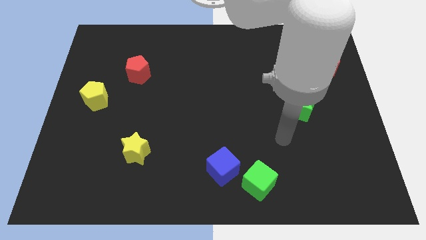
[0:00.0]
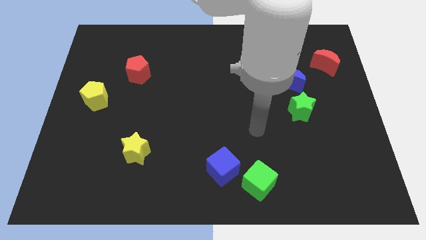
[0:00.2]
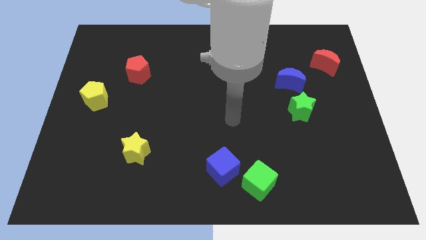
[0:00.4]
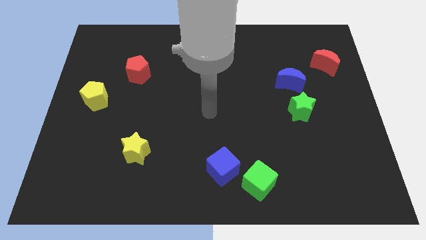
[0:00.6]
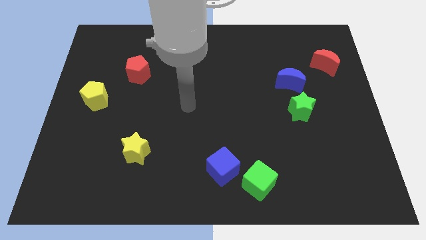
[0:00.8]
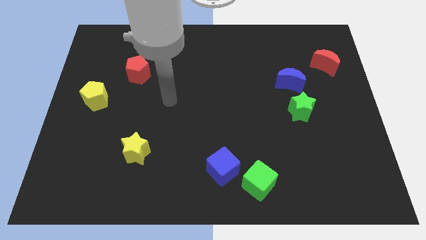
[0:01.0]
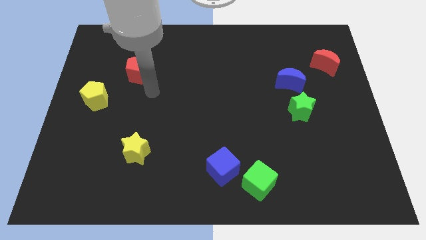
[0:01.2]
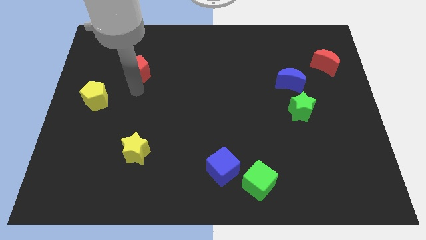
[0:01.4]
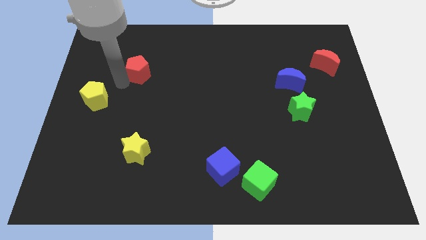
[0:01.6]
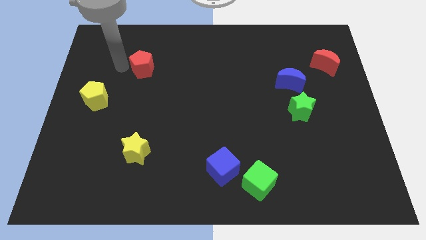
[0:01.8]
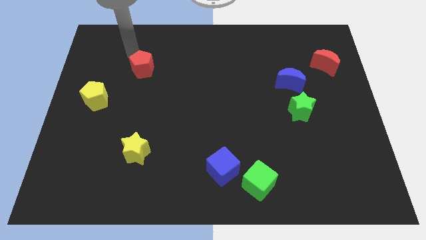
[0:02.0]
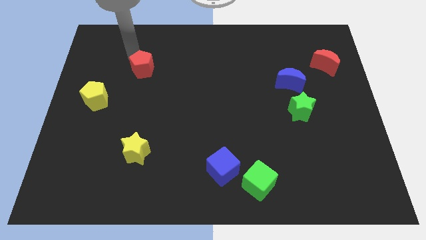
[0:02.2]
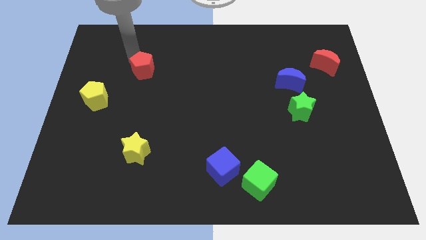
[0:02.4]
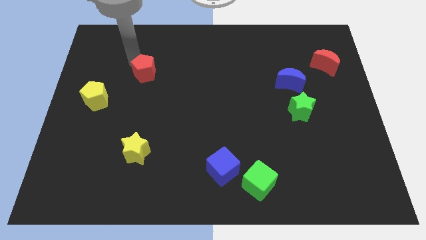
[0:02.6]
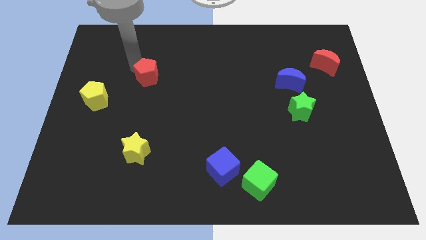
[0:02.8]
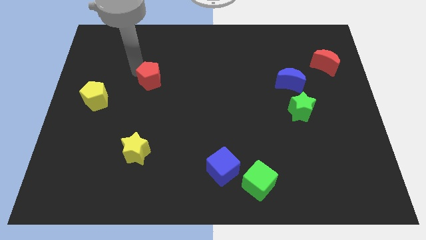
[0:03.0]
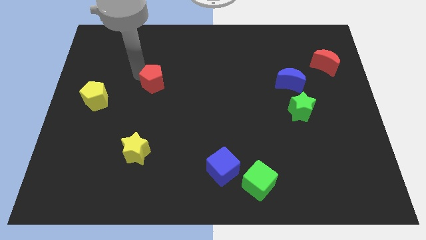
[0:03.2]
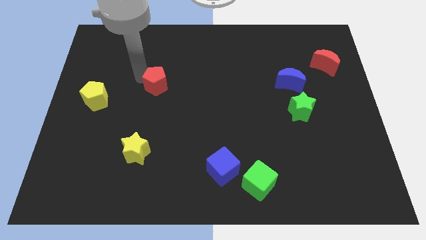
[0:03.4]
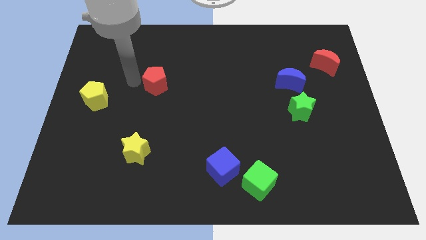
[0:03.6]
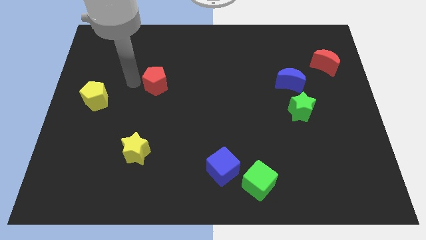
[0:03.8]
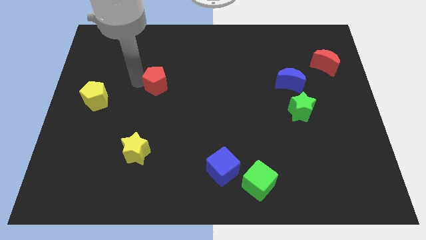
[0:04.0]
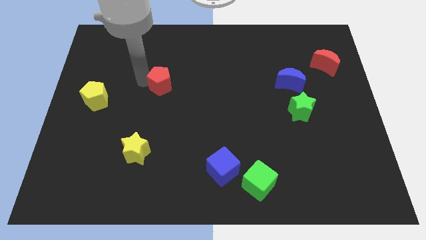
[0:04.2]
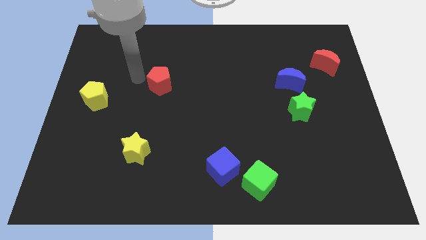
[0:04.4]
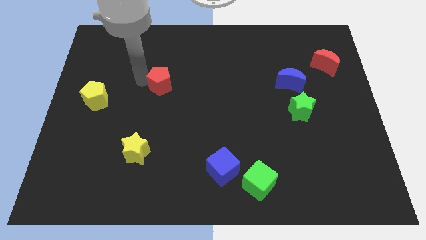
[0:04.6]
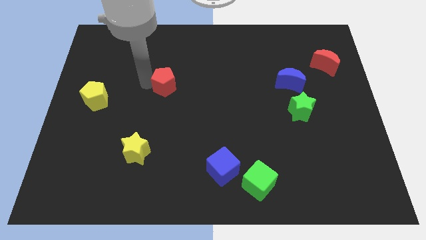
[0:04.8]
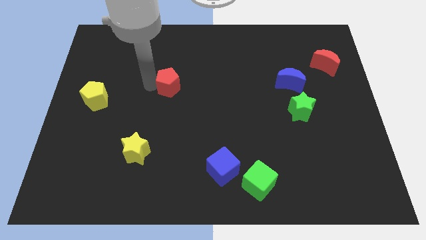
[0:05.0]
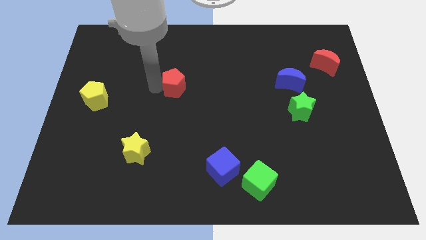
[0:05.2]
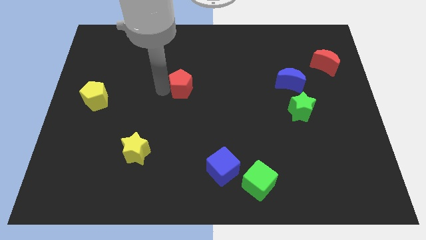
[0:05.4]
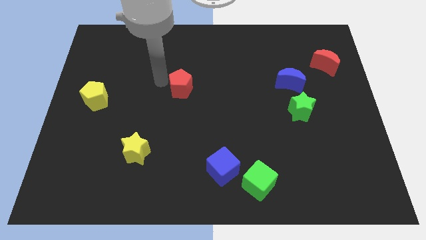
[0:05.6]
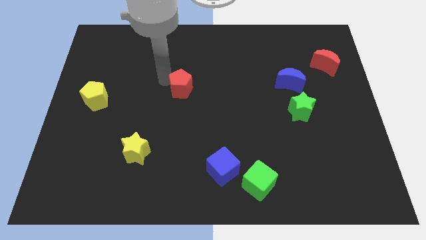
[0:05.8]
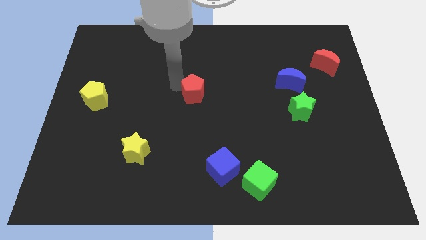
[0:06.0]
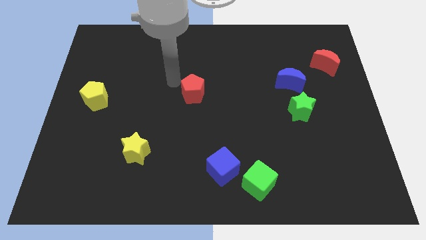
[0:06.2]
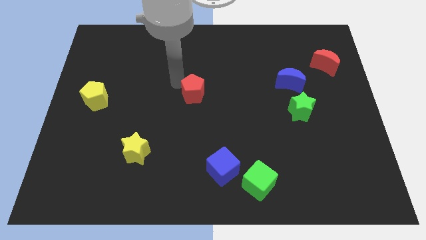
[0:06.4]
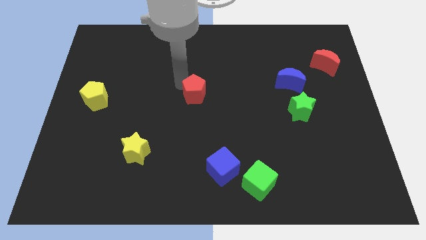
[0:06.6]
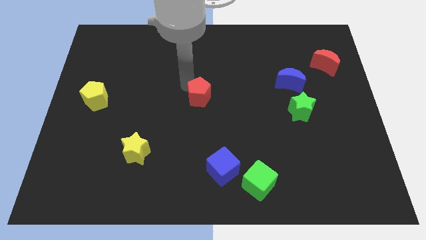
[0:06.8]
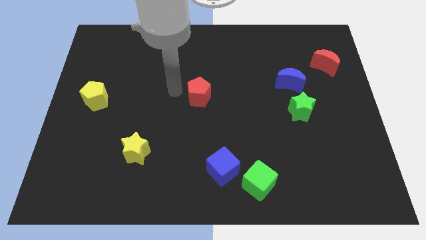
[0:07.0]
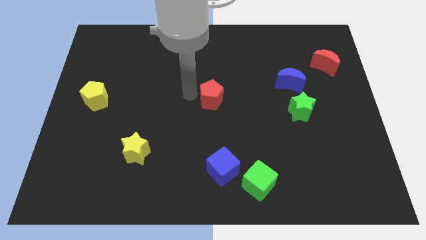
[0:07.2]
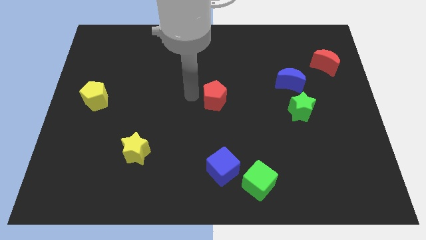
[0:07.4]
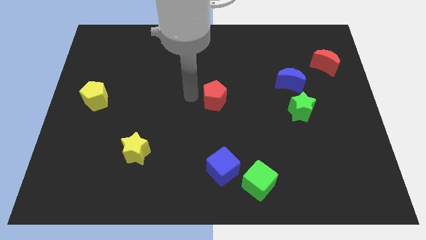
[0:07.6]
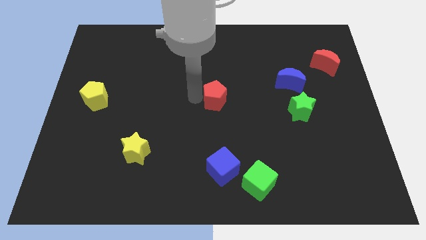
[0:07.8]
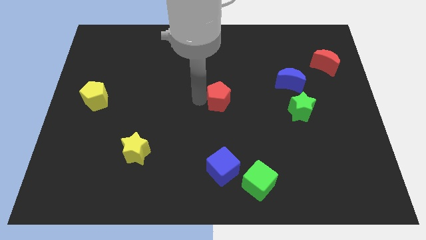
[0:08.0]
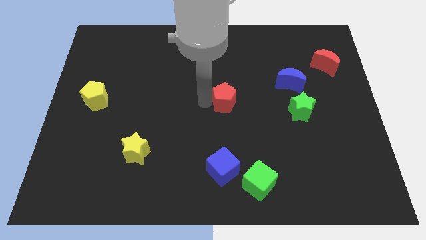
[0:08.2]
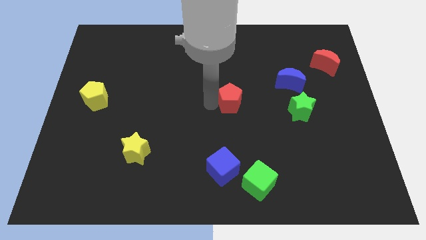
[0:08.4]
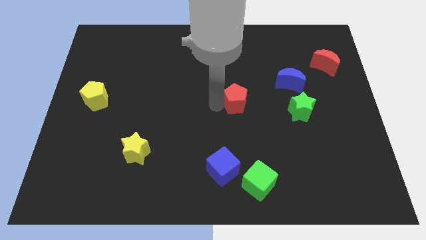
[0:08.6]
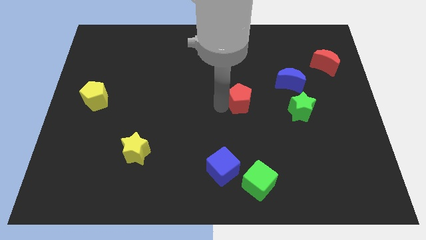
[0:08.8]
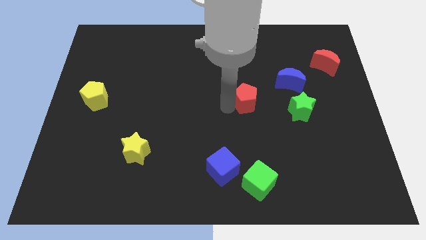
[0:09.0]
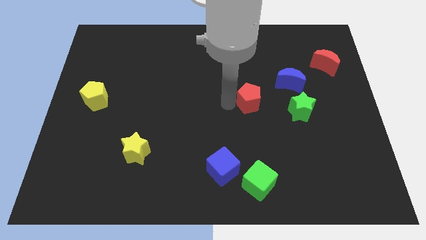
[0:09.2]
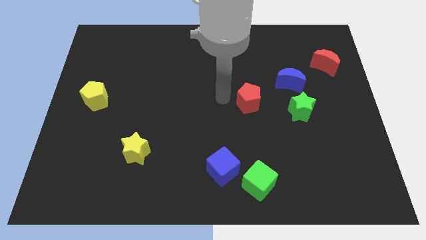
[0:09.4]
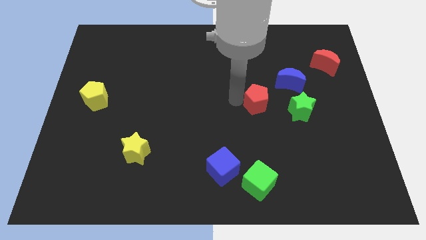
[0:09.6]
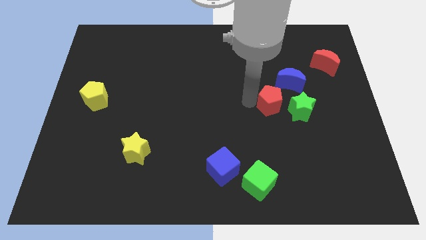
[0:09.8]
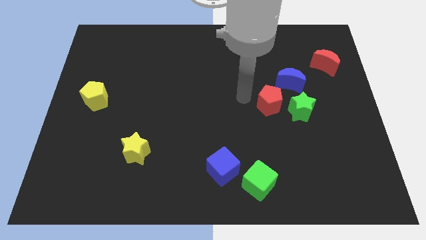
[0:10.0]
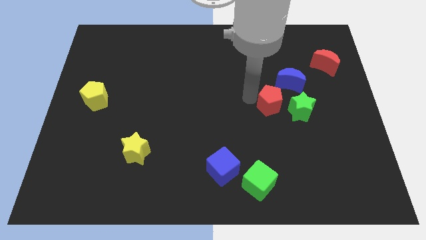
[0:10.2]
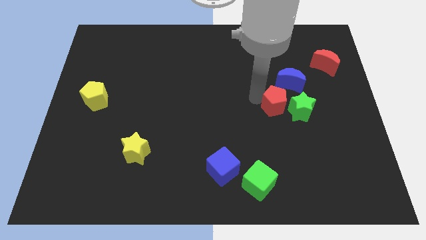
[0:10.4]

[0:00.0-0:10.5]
put the red pentagon close to the green star

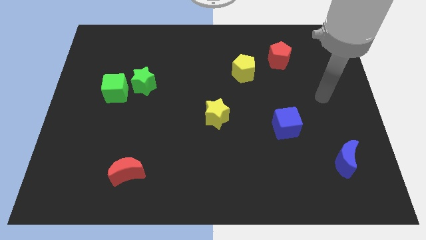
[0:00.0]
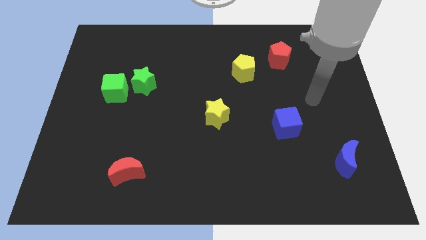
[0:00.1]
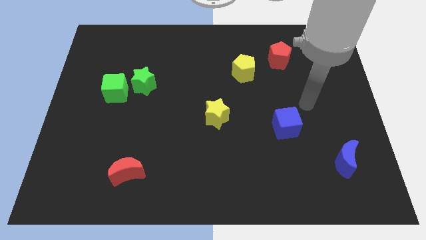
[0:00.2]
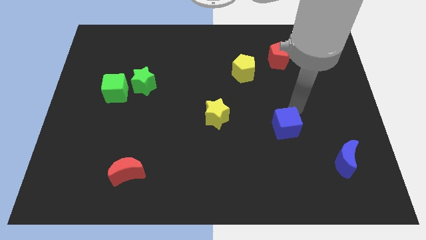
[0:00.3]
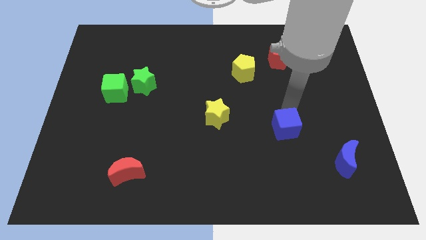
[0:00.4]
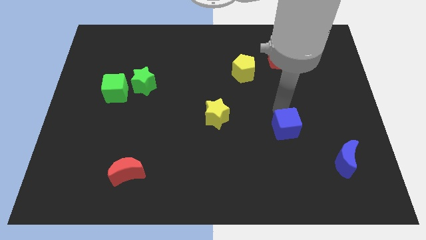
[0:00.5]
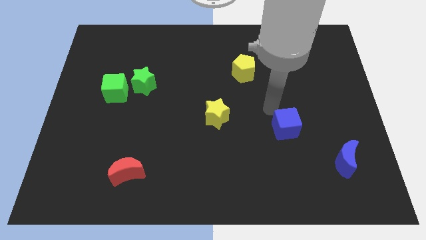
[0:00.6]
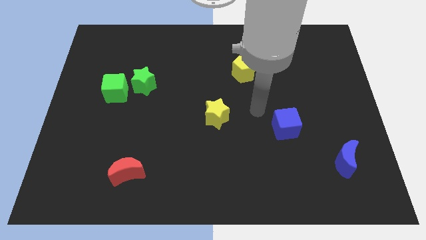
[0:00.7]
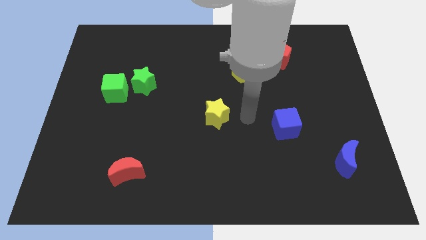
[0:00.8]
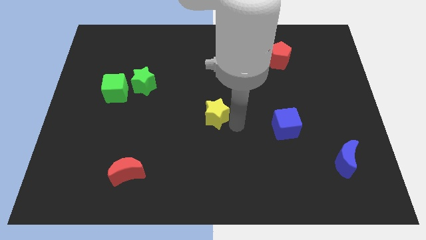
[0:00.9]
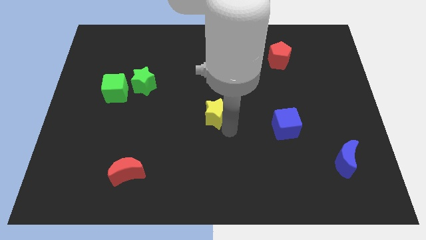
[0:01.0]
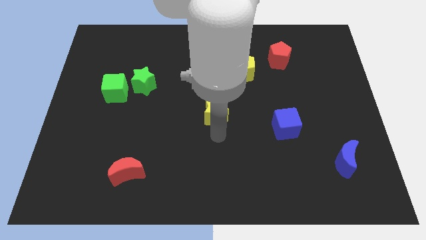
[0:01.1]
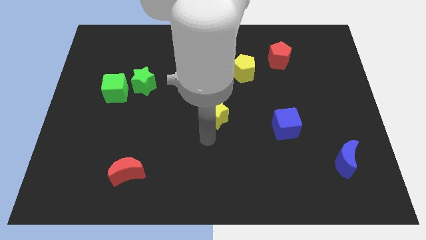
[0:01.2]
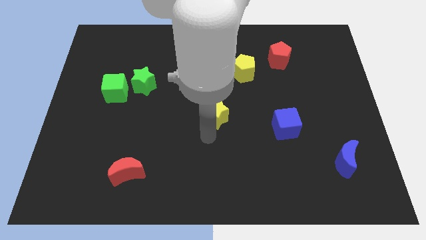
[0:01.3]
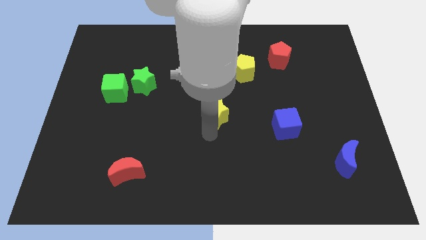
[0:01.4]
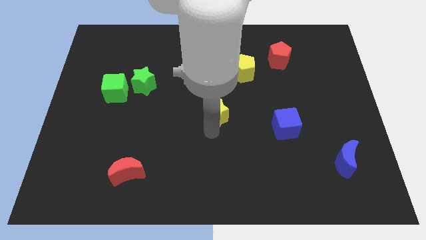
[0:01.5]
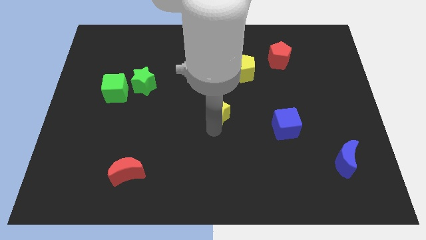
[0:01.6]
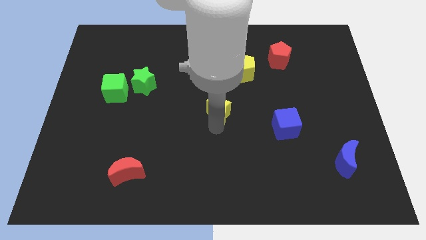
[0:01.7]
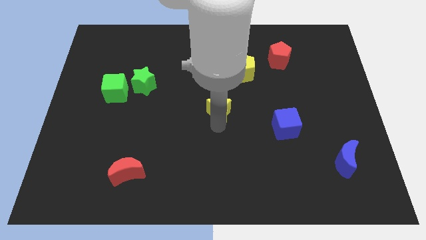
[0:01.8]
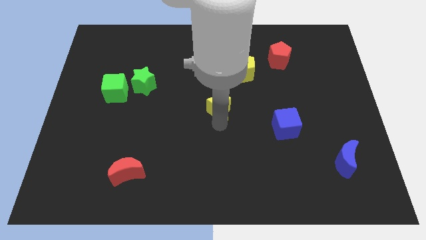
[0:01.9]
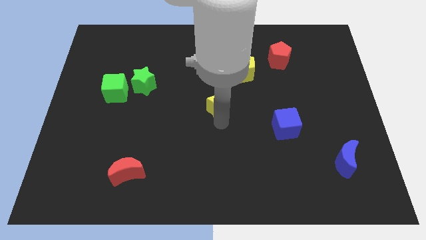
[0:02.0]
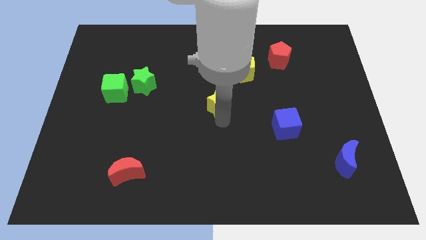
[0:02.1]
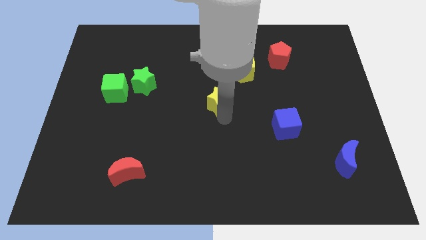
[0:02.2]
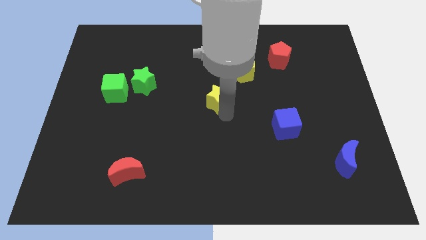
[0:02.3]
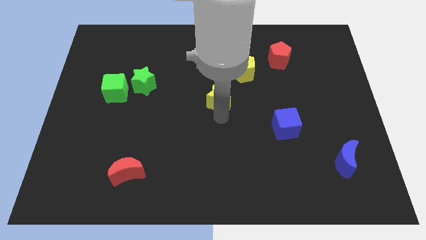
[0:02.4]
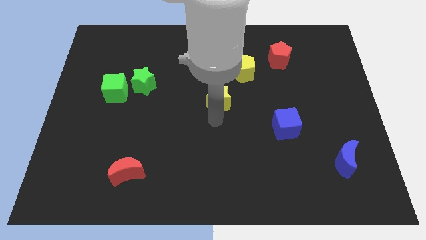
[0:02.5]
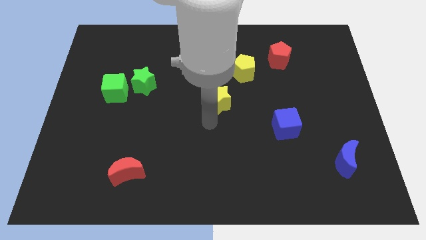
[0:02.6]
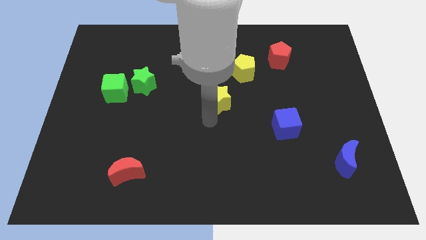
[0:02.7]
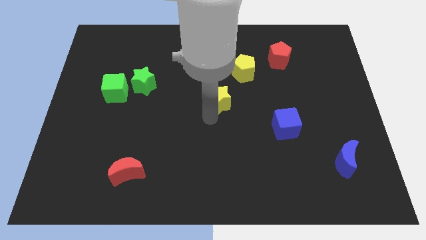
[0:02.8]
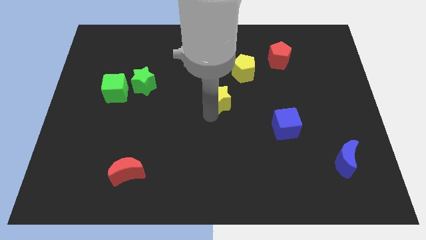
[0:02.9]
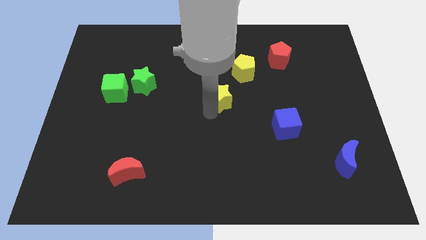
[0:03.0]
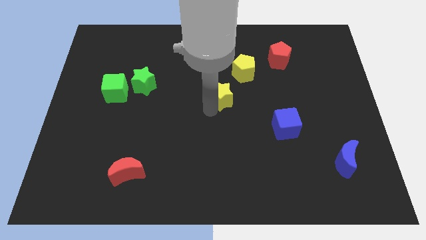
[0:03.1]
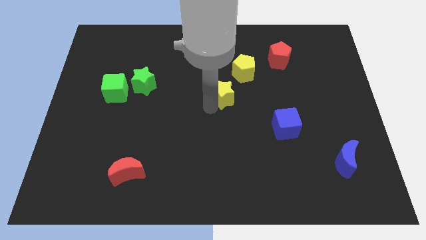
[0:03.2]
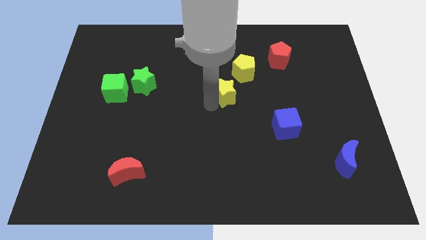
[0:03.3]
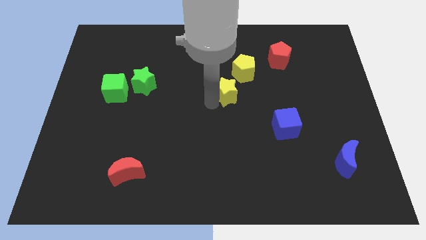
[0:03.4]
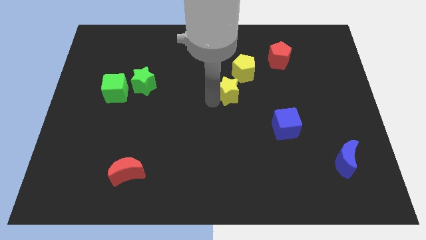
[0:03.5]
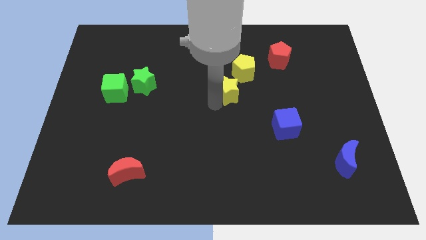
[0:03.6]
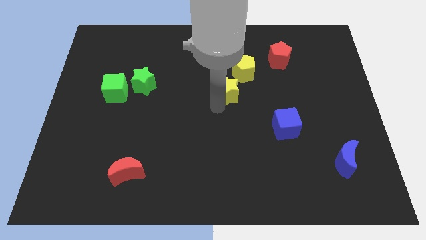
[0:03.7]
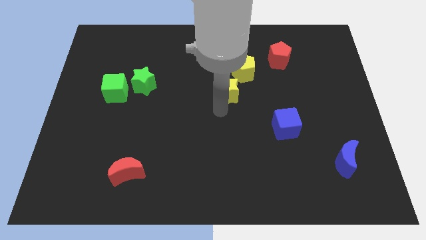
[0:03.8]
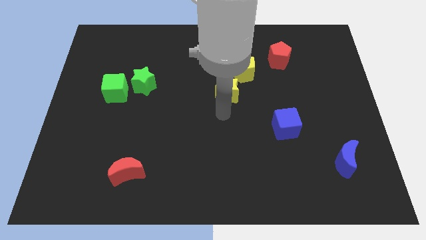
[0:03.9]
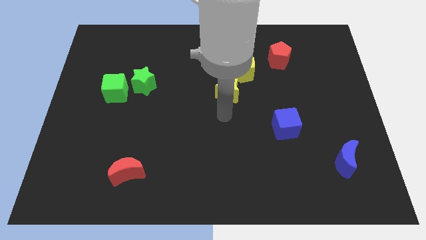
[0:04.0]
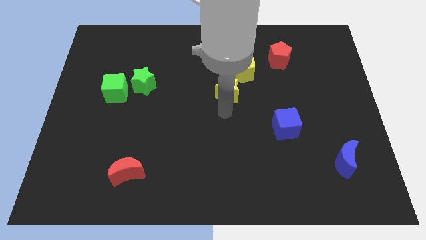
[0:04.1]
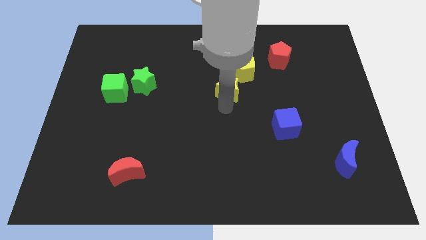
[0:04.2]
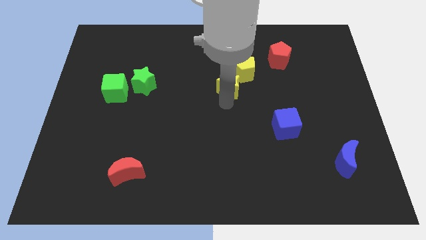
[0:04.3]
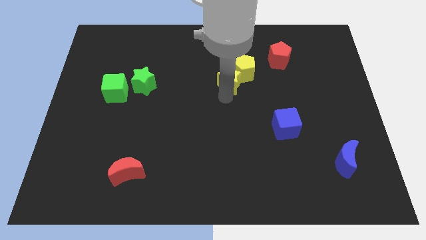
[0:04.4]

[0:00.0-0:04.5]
push the yellow star close to the yellow pentagon
